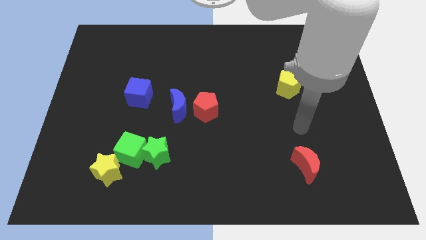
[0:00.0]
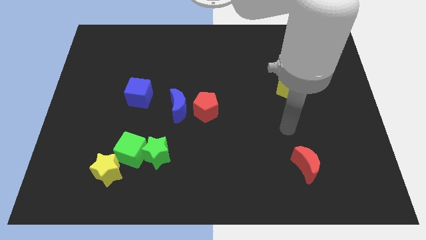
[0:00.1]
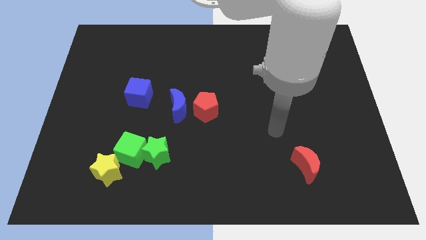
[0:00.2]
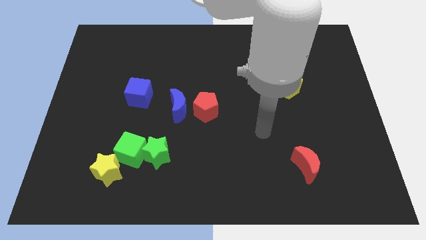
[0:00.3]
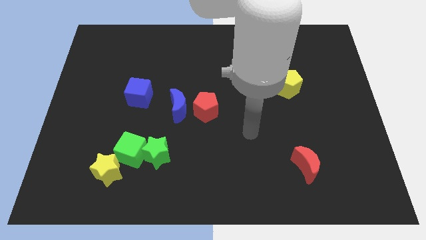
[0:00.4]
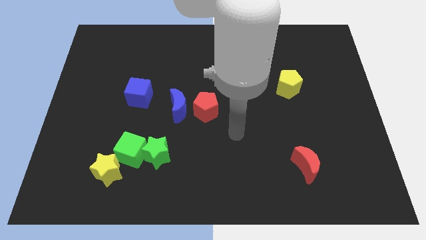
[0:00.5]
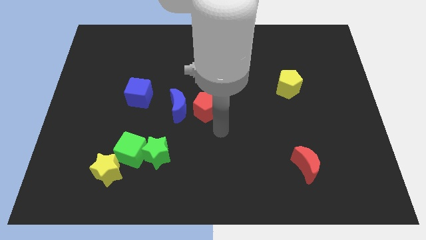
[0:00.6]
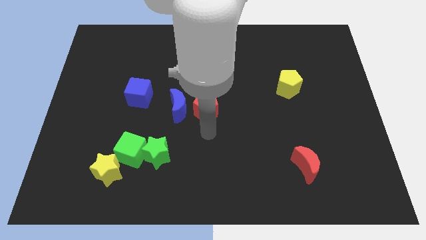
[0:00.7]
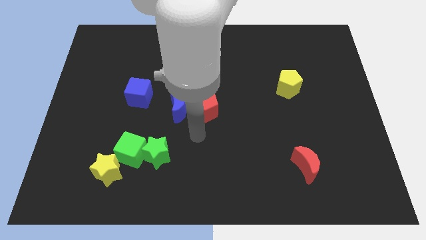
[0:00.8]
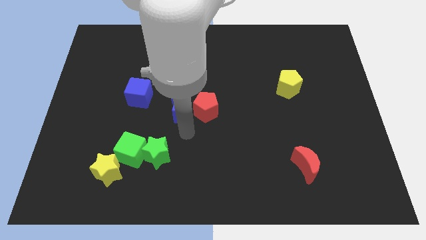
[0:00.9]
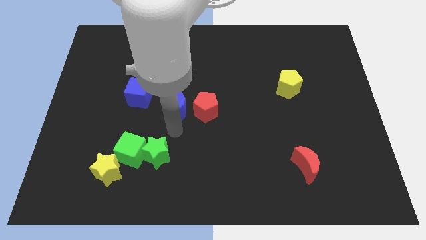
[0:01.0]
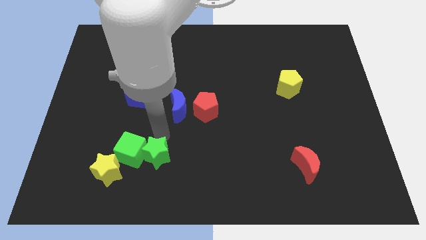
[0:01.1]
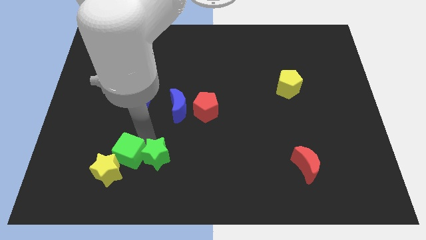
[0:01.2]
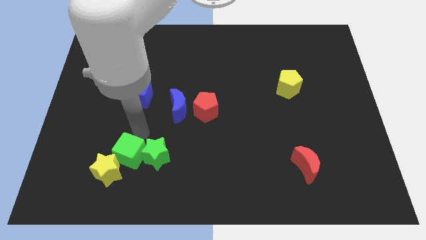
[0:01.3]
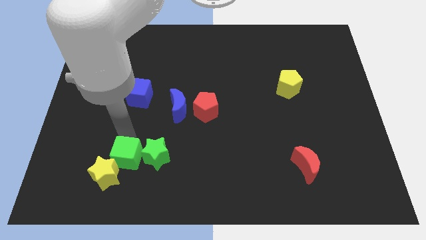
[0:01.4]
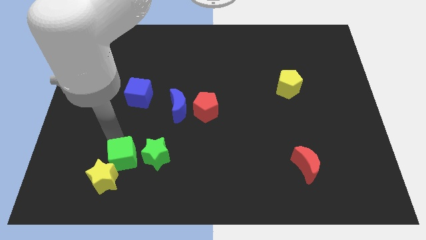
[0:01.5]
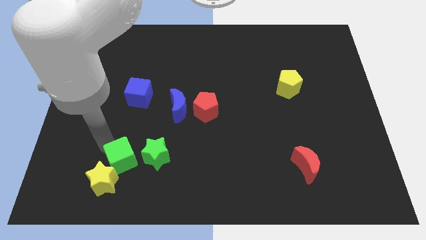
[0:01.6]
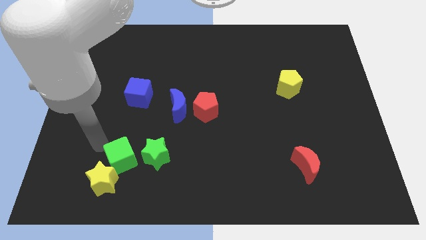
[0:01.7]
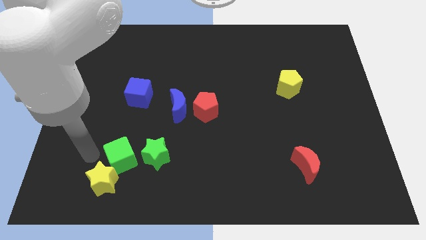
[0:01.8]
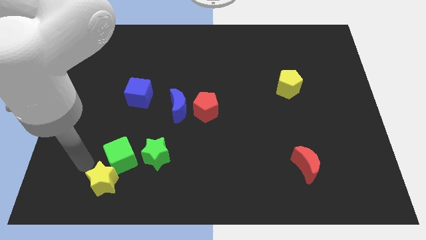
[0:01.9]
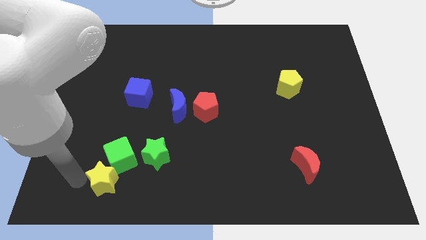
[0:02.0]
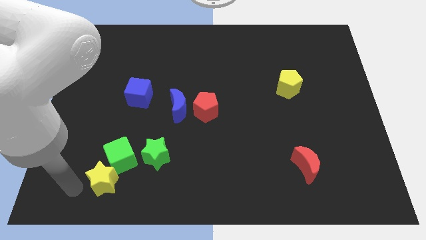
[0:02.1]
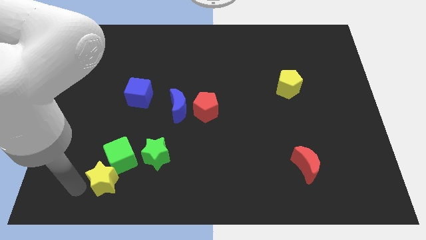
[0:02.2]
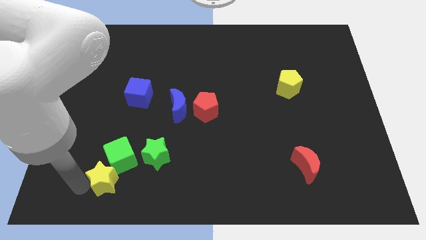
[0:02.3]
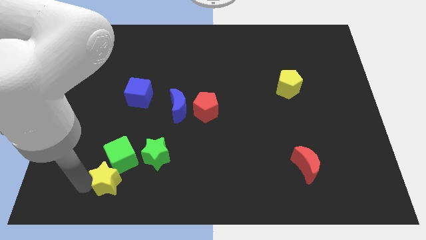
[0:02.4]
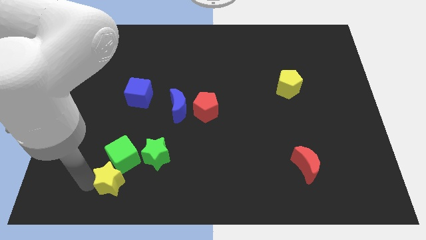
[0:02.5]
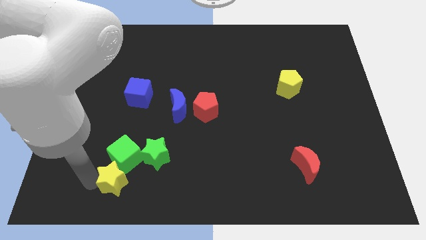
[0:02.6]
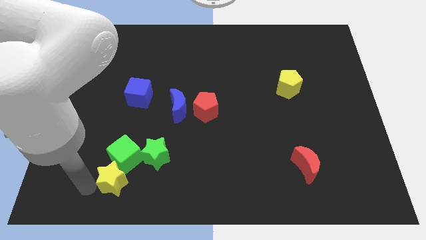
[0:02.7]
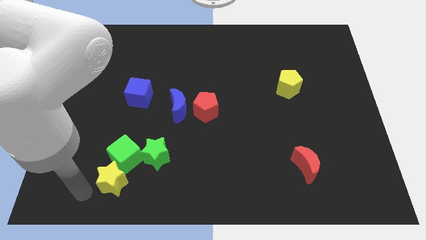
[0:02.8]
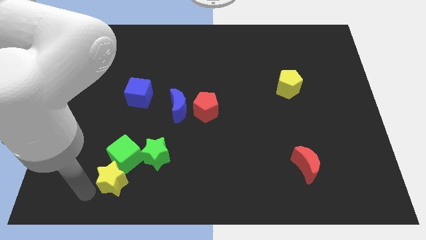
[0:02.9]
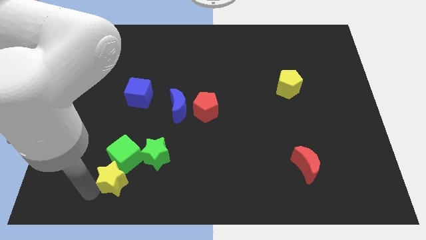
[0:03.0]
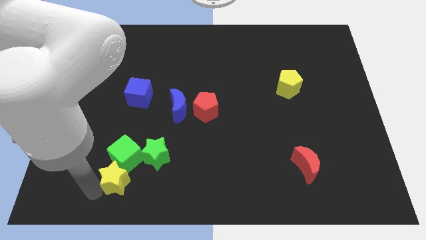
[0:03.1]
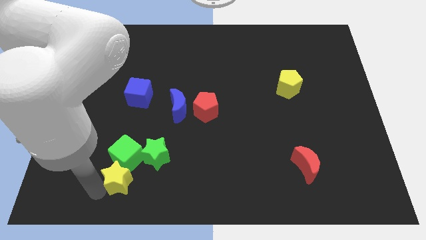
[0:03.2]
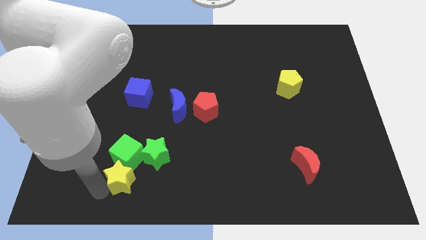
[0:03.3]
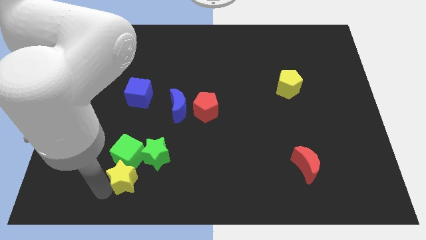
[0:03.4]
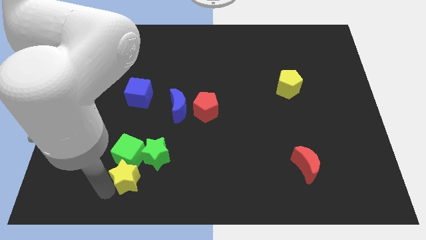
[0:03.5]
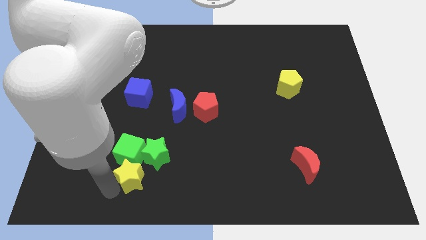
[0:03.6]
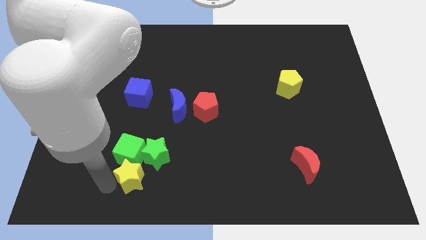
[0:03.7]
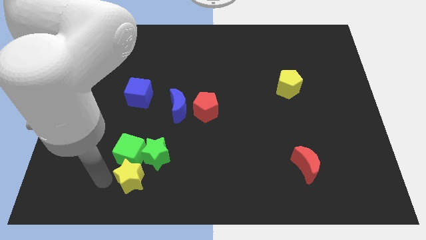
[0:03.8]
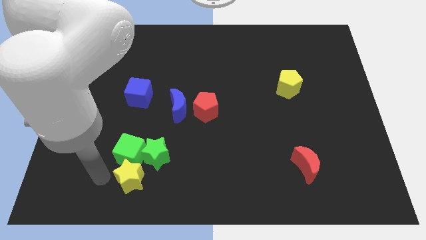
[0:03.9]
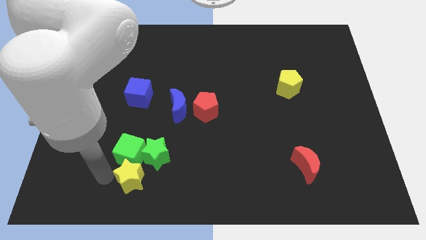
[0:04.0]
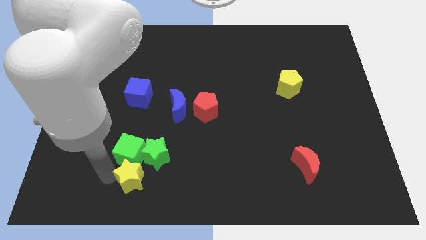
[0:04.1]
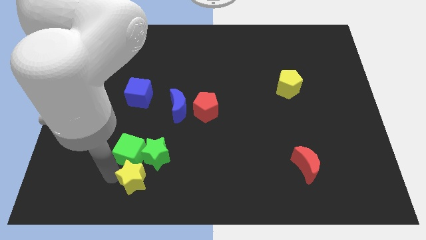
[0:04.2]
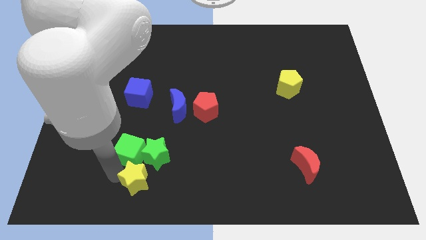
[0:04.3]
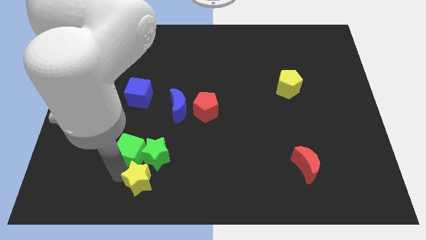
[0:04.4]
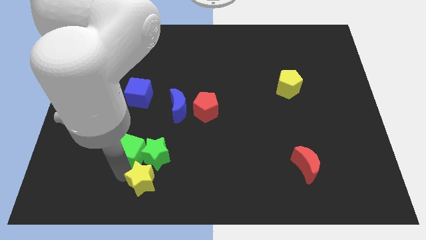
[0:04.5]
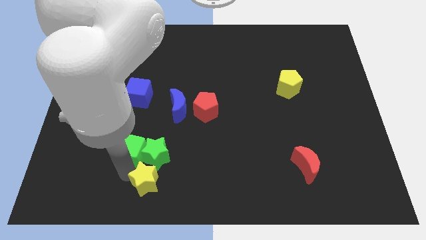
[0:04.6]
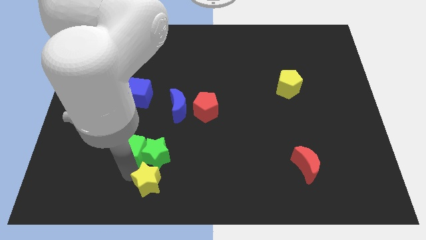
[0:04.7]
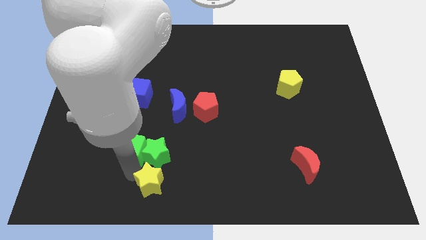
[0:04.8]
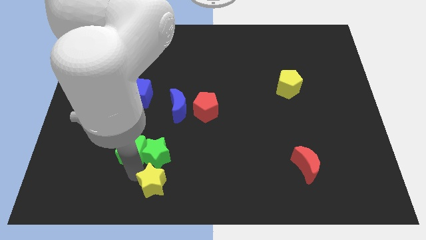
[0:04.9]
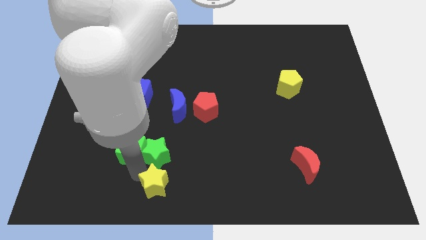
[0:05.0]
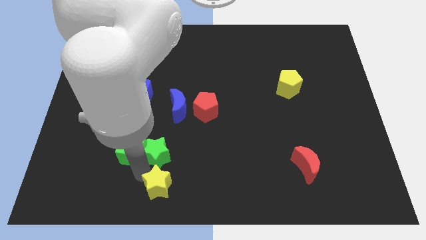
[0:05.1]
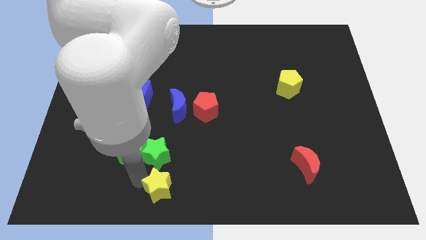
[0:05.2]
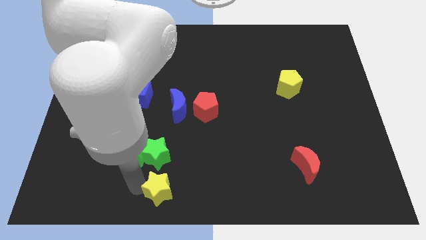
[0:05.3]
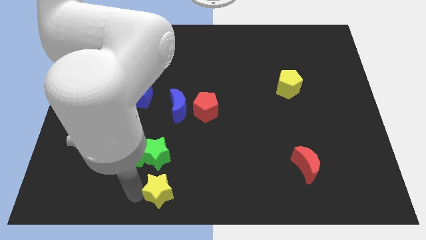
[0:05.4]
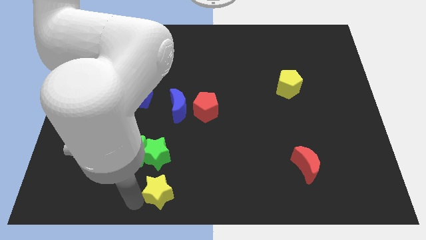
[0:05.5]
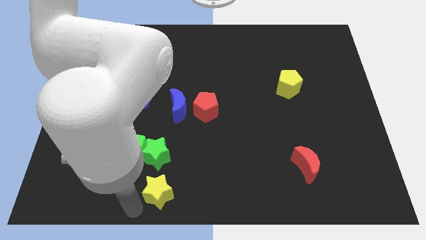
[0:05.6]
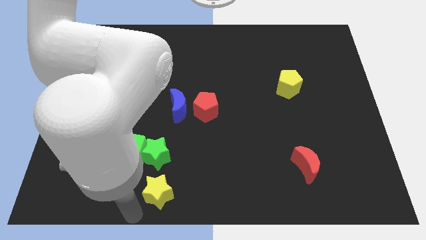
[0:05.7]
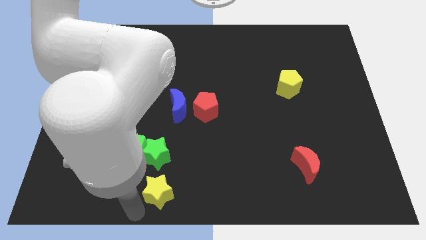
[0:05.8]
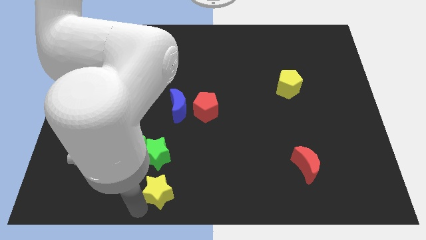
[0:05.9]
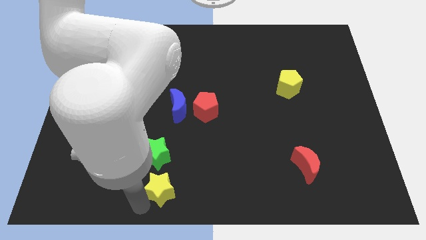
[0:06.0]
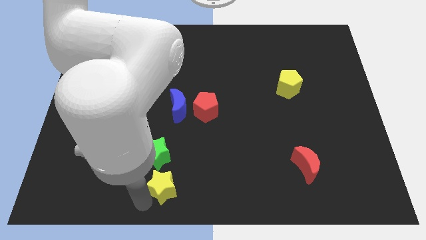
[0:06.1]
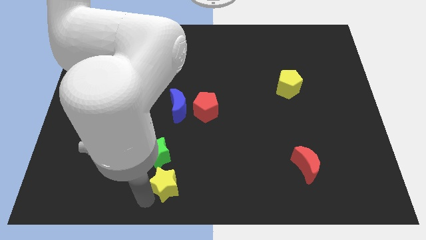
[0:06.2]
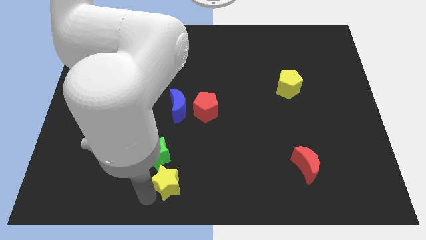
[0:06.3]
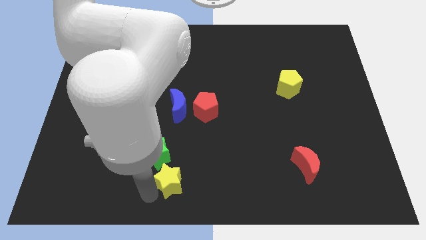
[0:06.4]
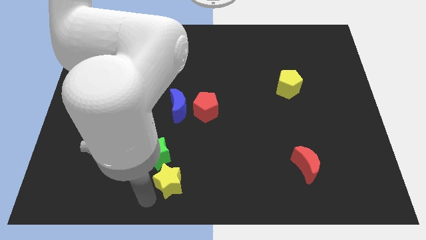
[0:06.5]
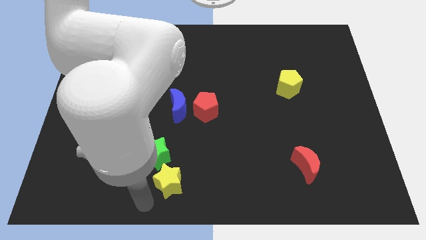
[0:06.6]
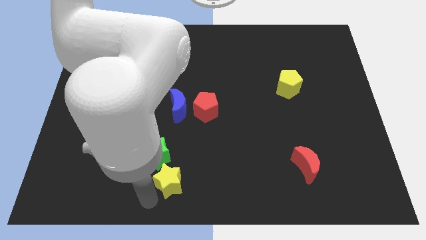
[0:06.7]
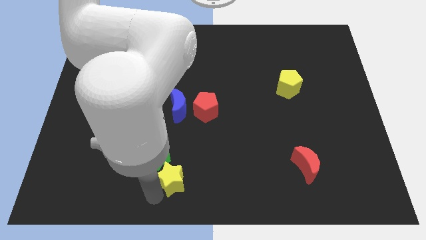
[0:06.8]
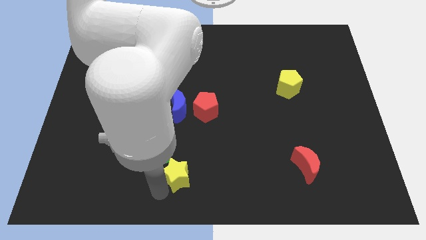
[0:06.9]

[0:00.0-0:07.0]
move the yellow star to the right side of the green star
